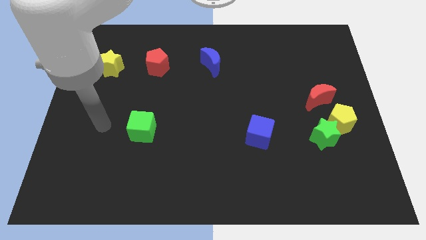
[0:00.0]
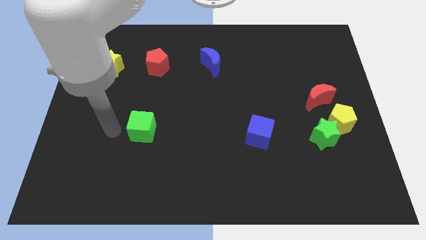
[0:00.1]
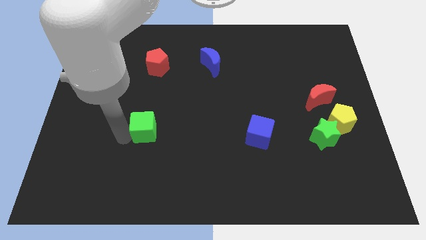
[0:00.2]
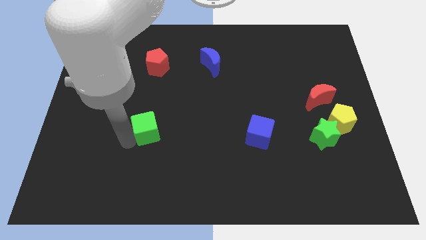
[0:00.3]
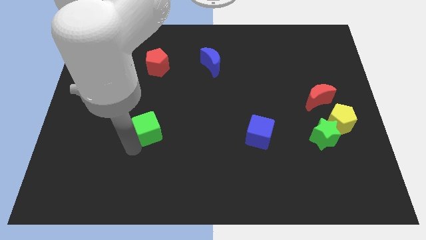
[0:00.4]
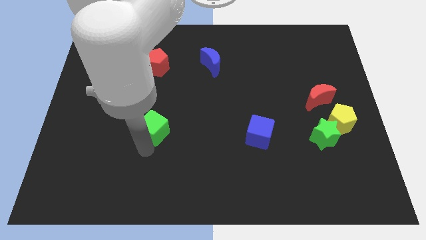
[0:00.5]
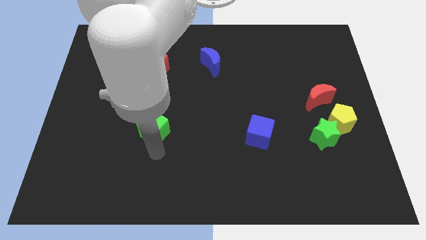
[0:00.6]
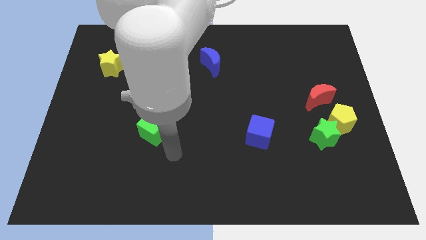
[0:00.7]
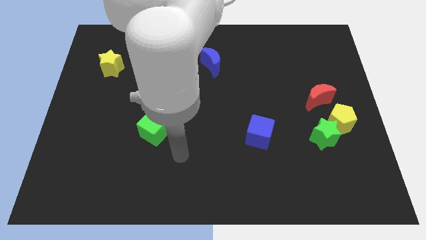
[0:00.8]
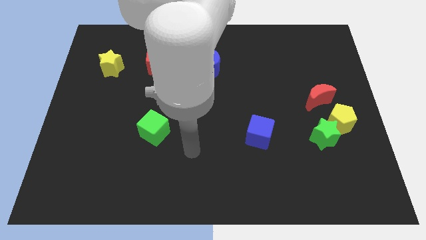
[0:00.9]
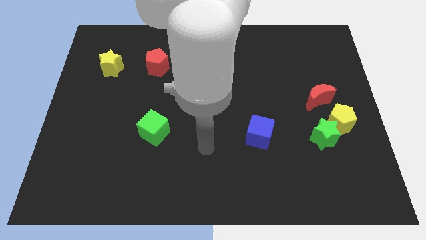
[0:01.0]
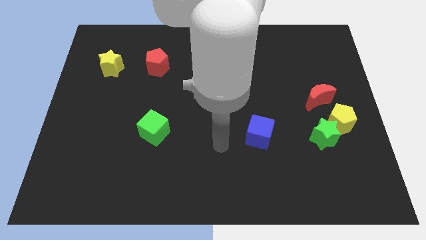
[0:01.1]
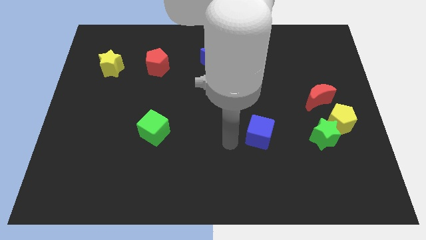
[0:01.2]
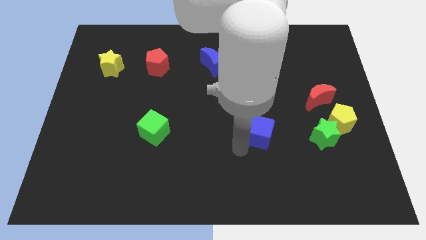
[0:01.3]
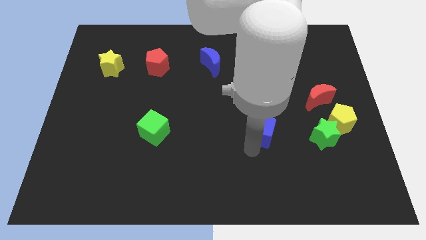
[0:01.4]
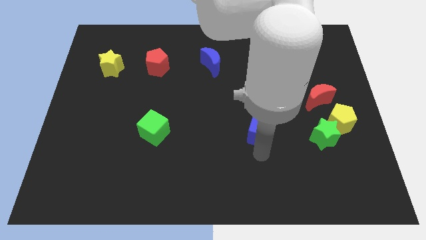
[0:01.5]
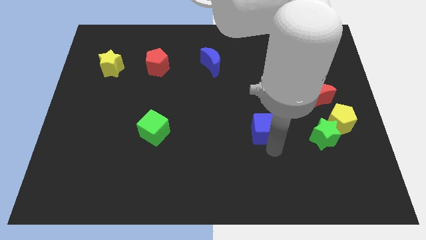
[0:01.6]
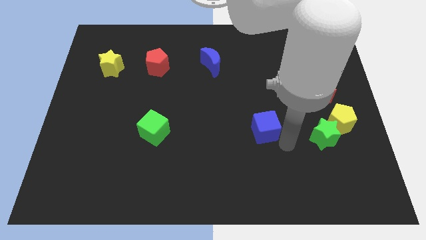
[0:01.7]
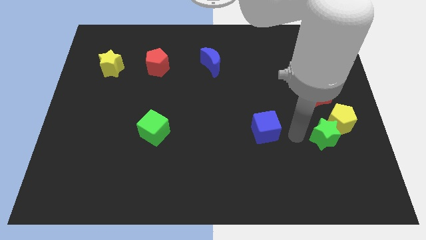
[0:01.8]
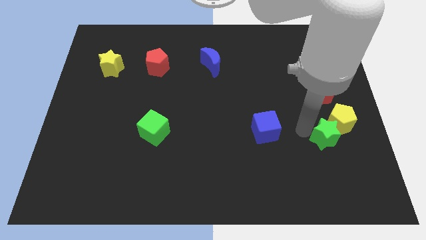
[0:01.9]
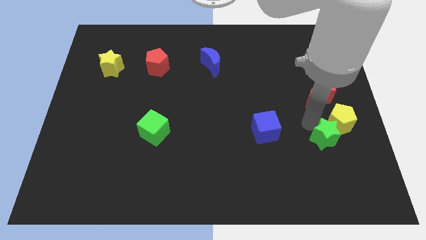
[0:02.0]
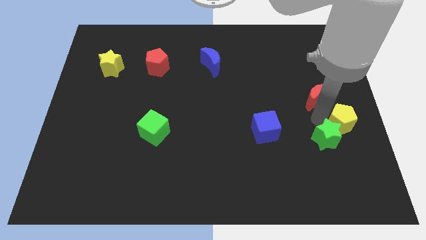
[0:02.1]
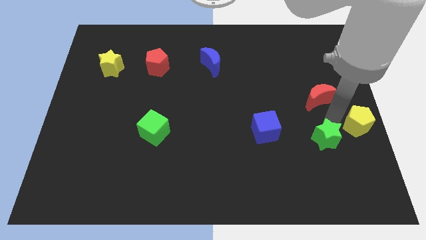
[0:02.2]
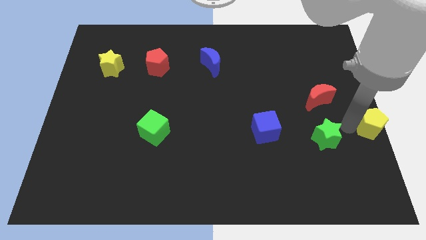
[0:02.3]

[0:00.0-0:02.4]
pull the green star apart from the yellow pentagon

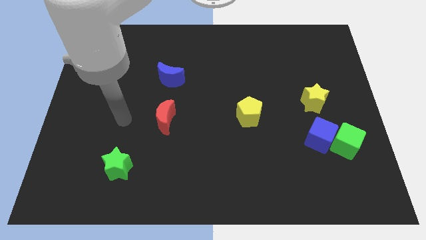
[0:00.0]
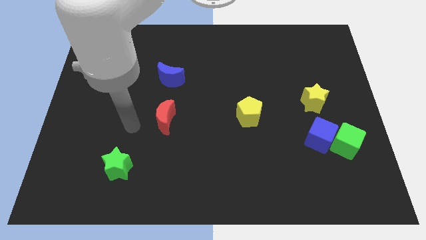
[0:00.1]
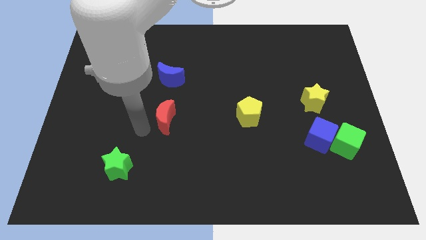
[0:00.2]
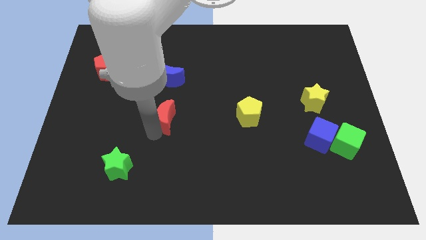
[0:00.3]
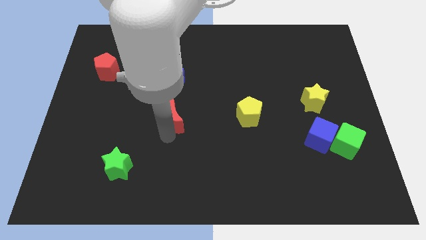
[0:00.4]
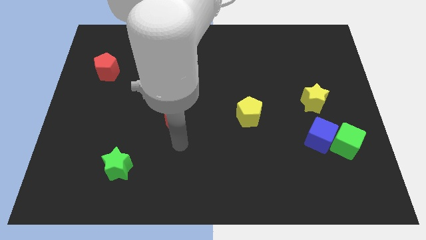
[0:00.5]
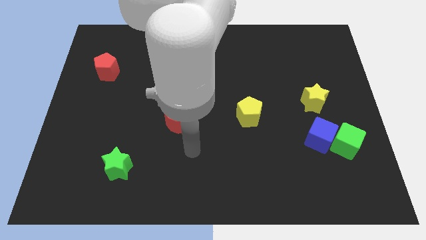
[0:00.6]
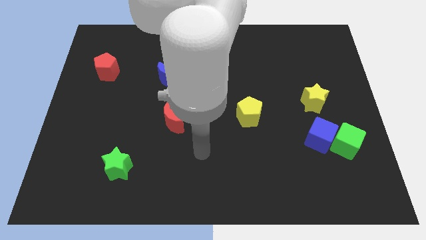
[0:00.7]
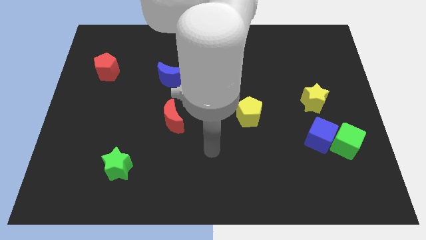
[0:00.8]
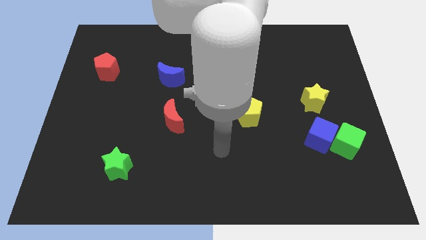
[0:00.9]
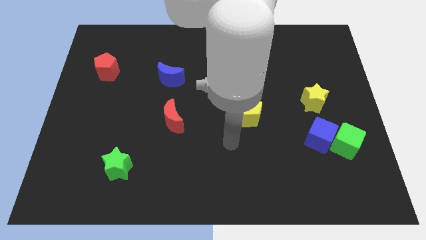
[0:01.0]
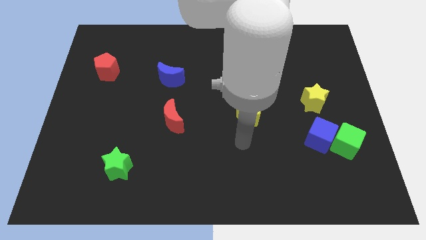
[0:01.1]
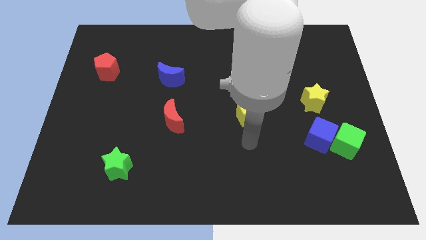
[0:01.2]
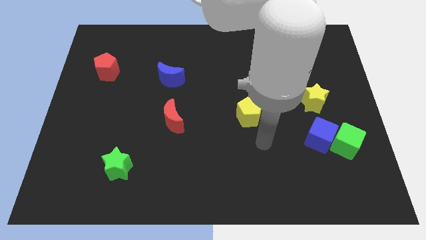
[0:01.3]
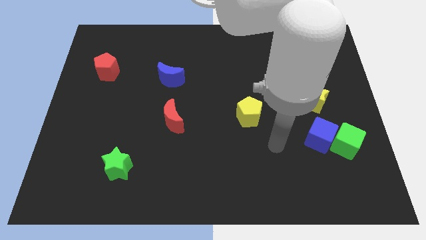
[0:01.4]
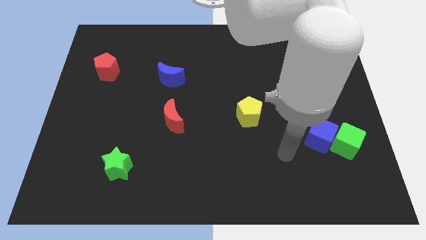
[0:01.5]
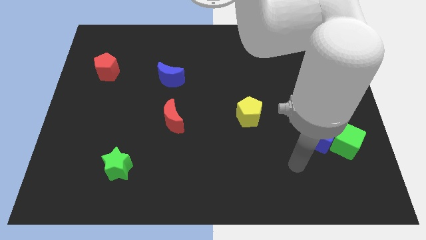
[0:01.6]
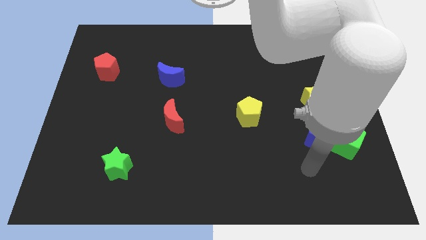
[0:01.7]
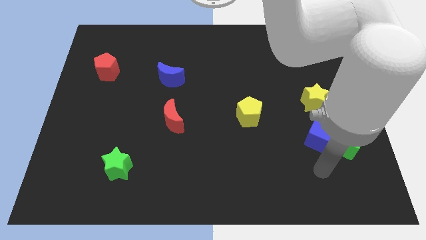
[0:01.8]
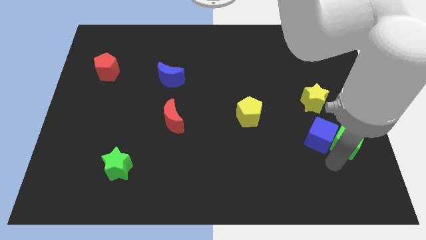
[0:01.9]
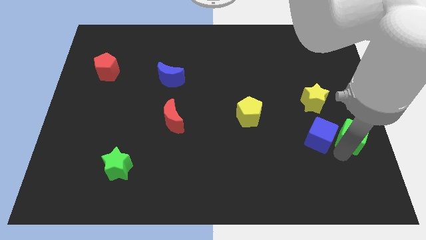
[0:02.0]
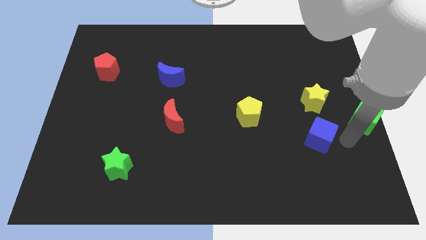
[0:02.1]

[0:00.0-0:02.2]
pull the blue cube apart from the green cube

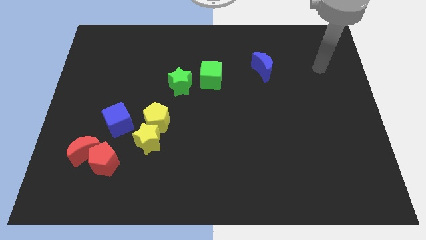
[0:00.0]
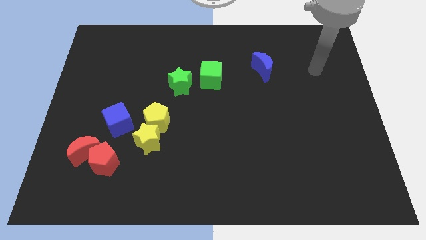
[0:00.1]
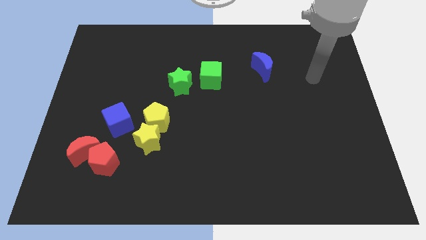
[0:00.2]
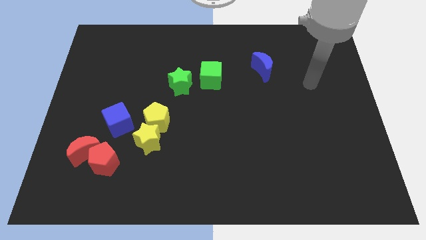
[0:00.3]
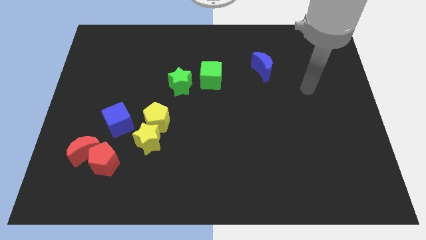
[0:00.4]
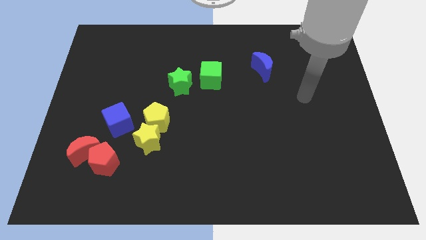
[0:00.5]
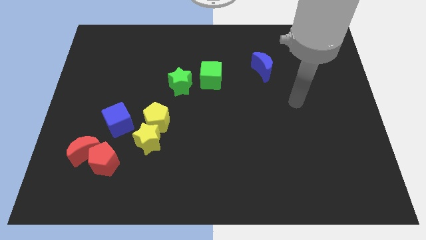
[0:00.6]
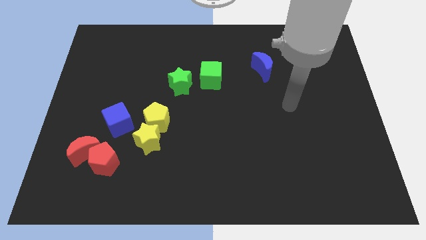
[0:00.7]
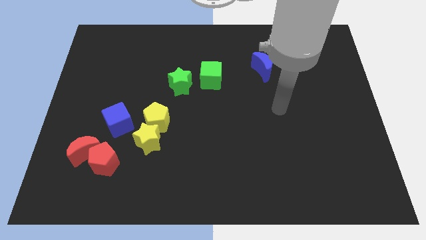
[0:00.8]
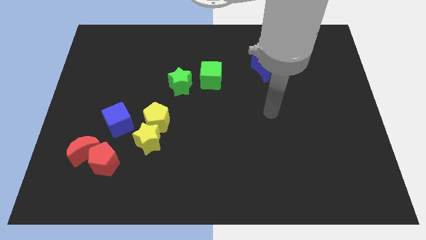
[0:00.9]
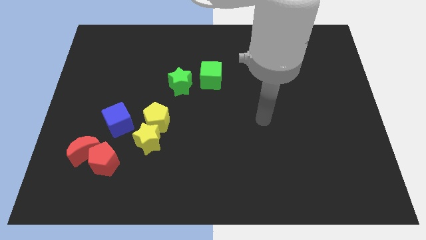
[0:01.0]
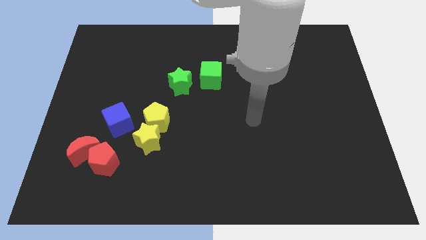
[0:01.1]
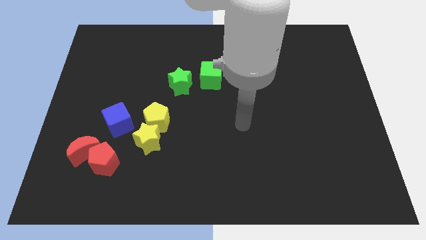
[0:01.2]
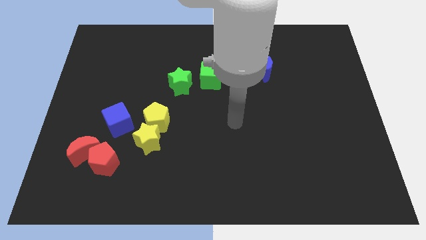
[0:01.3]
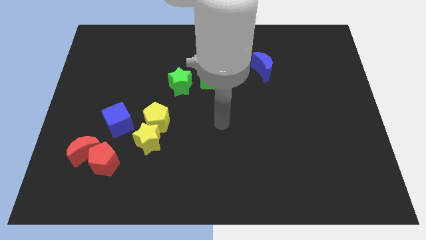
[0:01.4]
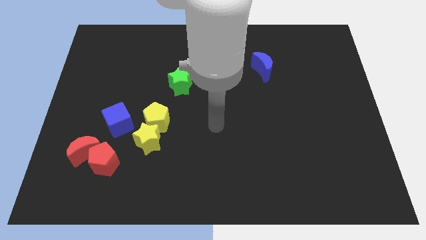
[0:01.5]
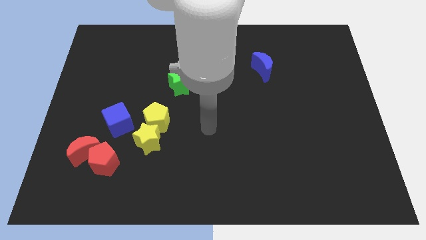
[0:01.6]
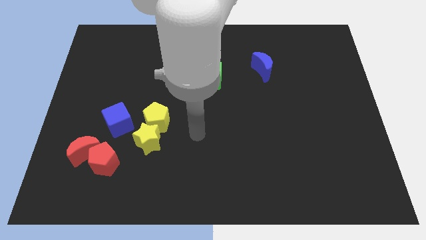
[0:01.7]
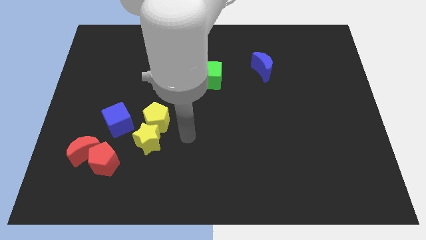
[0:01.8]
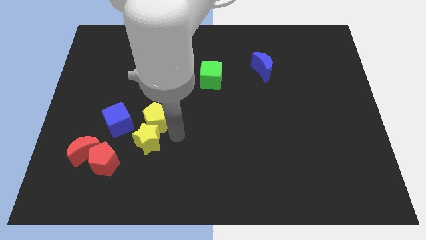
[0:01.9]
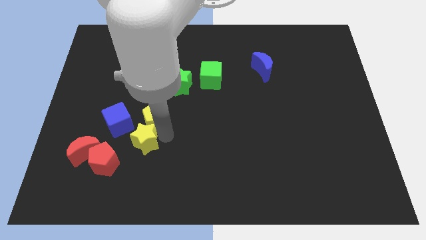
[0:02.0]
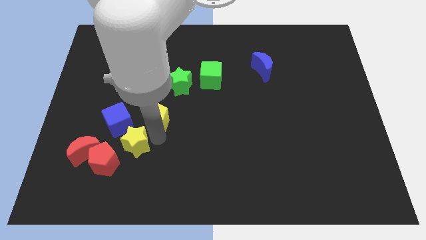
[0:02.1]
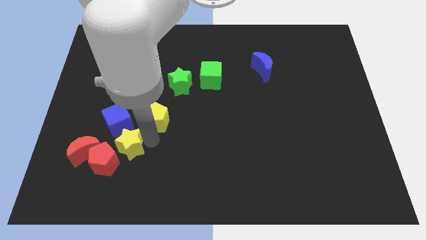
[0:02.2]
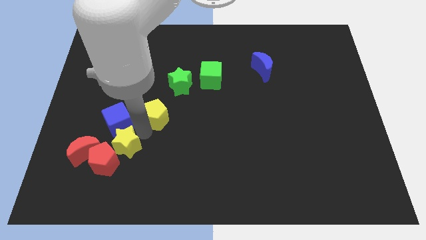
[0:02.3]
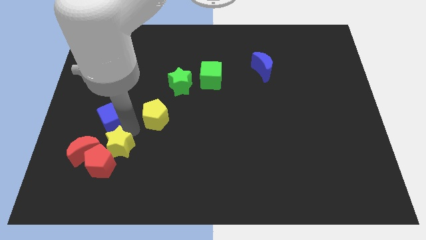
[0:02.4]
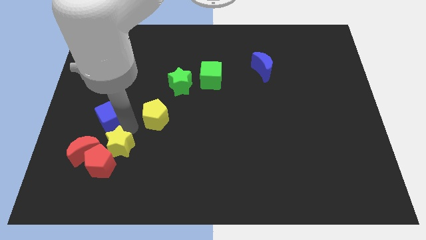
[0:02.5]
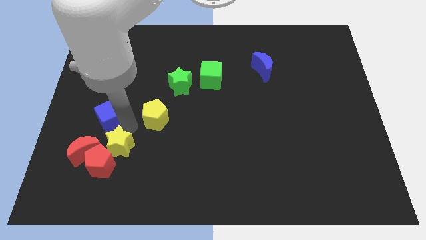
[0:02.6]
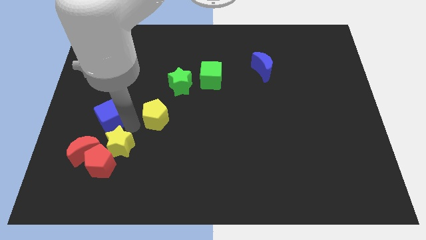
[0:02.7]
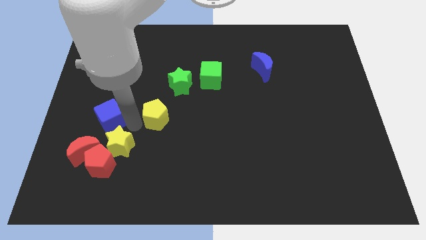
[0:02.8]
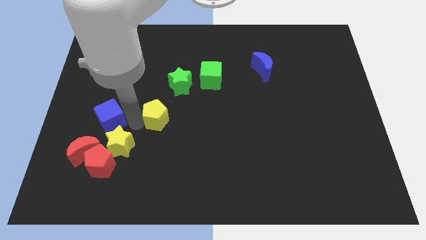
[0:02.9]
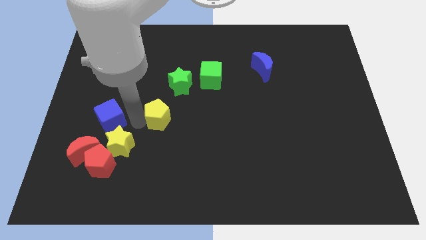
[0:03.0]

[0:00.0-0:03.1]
pull the yellow pentagon apart from the yellow star and blue cube

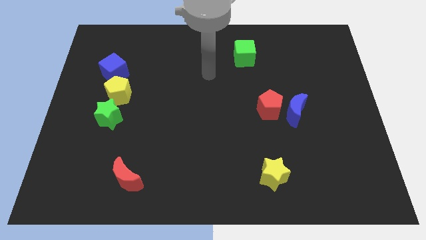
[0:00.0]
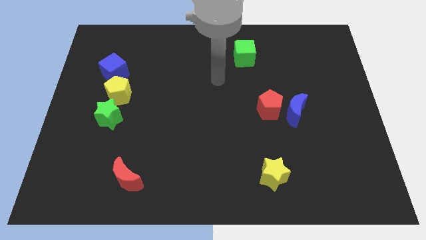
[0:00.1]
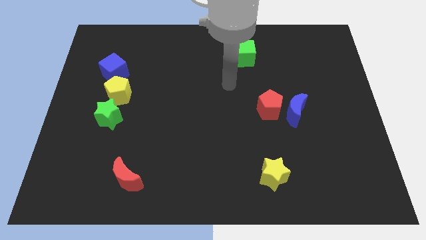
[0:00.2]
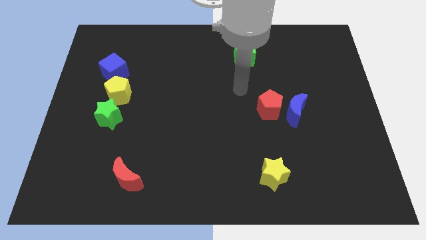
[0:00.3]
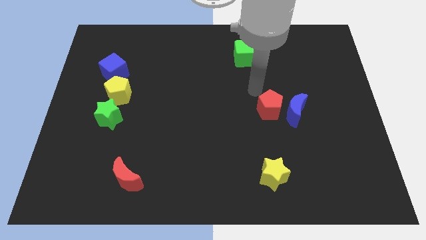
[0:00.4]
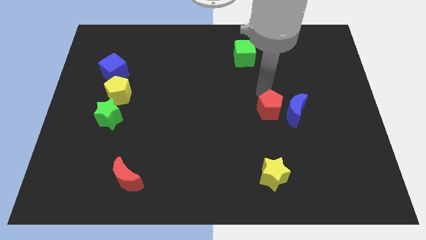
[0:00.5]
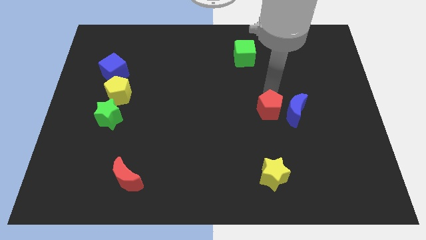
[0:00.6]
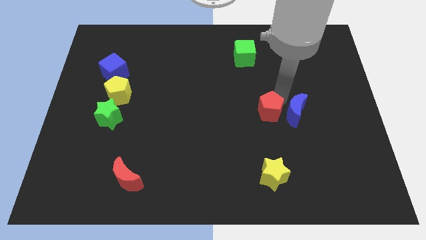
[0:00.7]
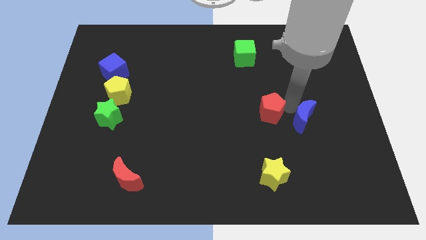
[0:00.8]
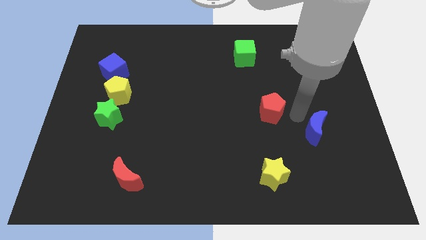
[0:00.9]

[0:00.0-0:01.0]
pull the red pentagon apart from the blue moon

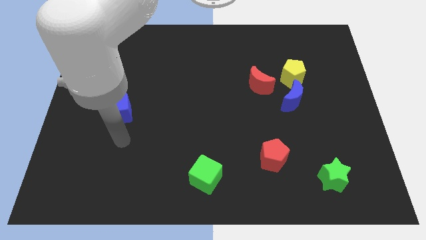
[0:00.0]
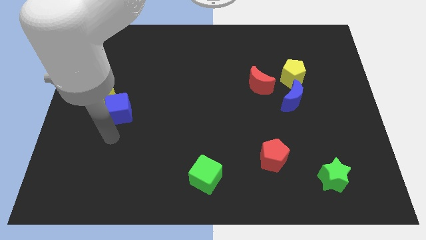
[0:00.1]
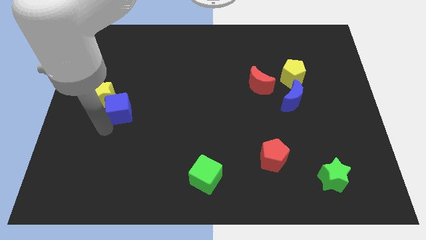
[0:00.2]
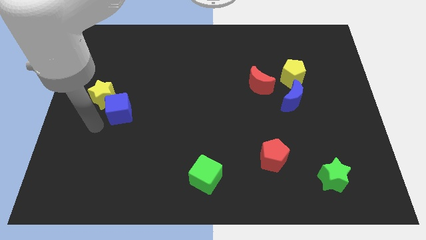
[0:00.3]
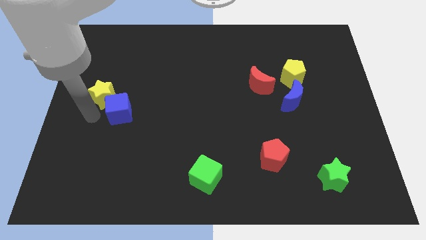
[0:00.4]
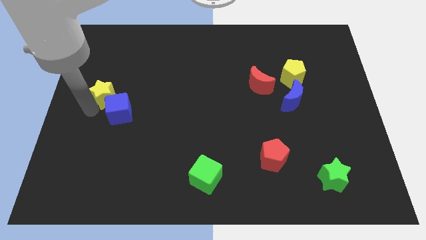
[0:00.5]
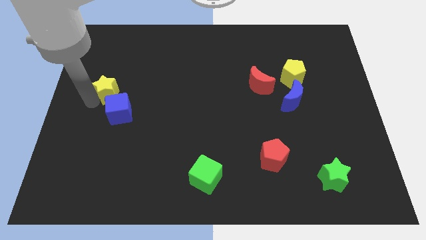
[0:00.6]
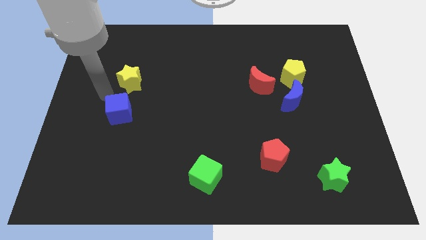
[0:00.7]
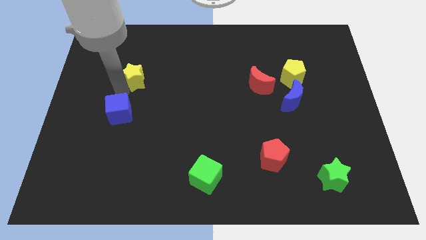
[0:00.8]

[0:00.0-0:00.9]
separate the blue cube from the yellow star
